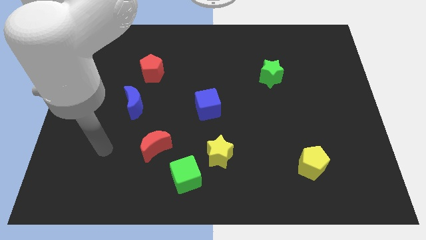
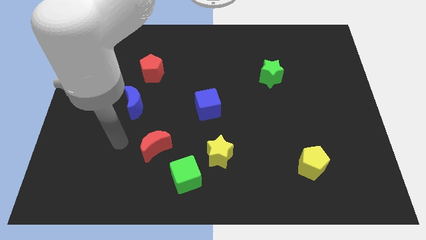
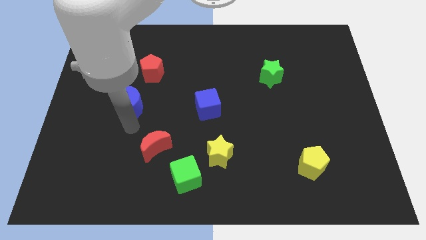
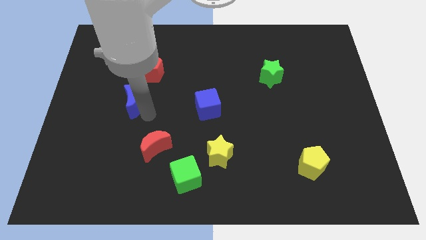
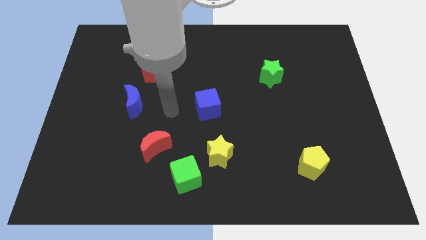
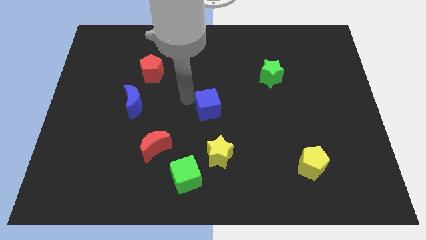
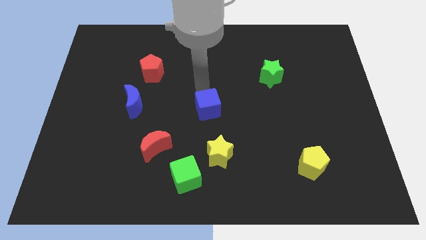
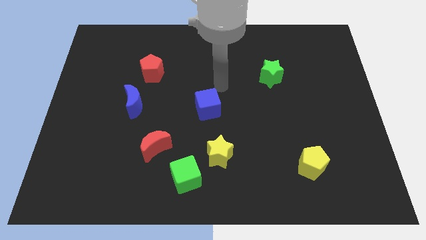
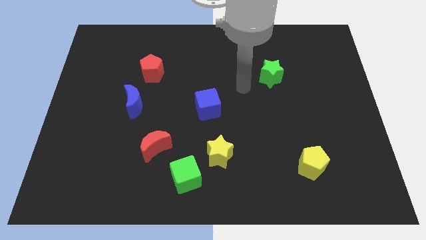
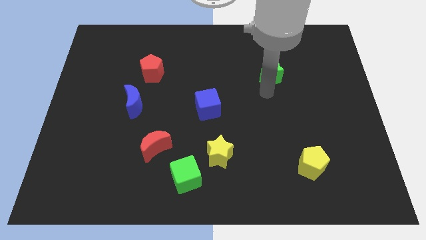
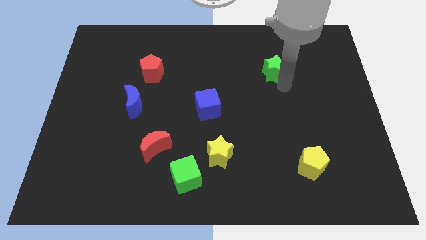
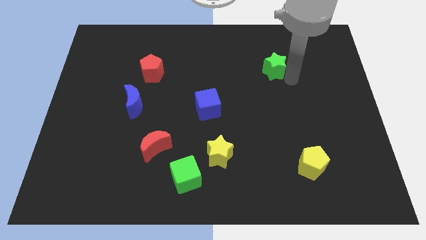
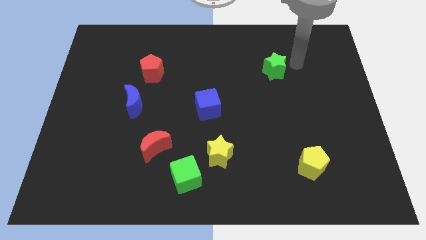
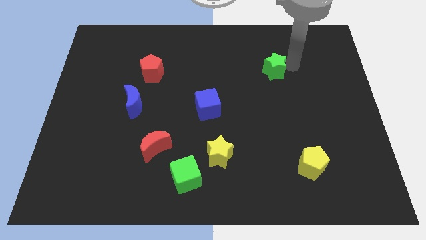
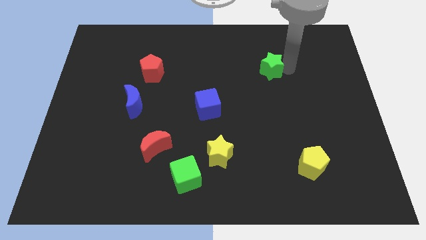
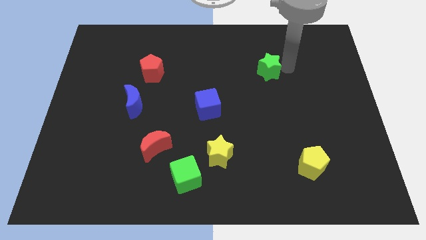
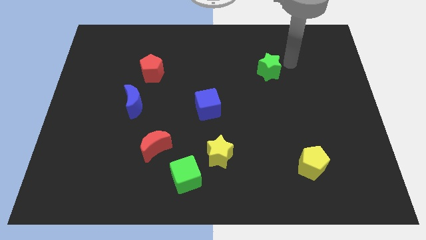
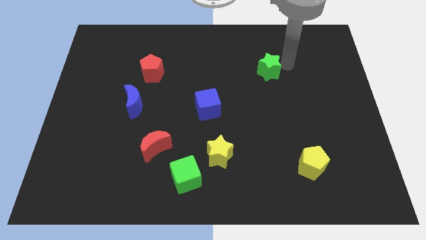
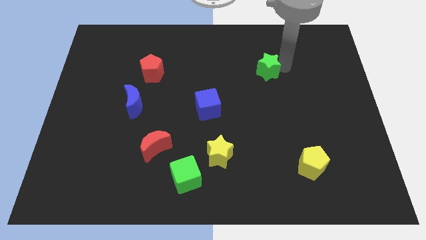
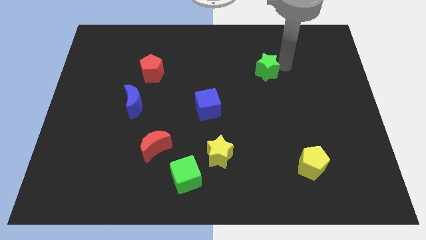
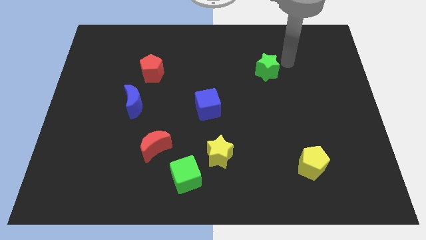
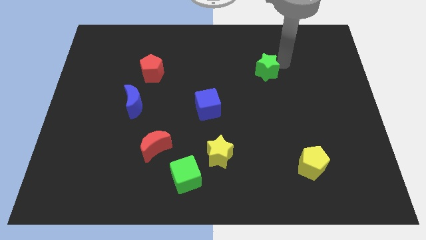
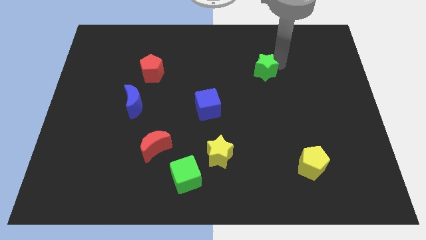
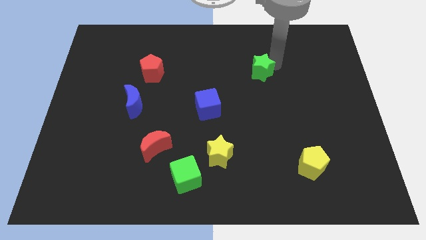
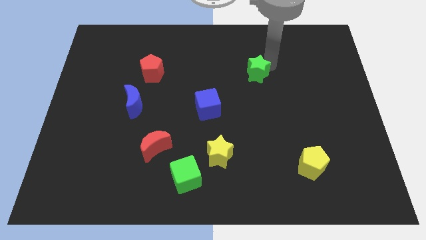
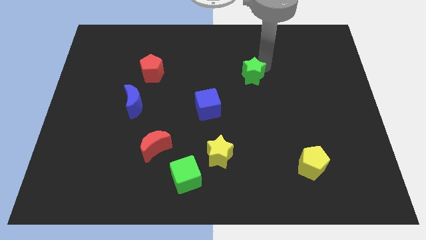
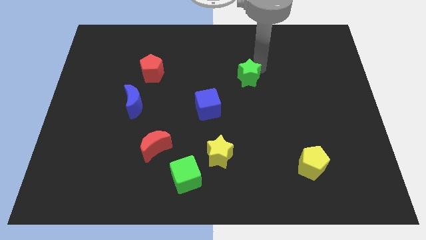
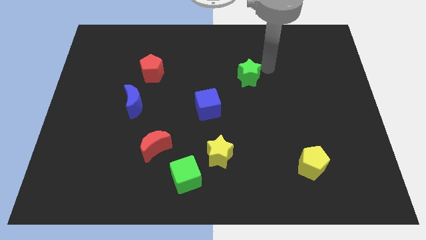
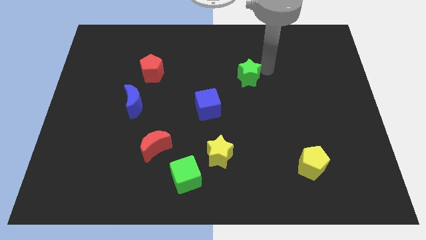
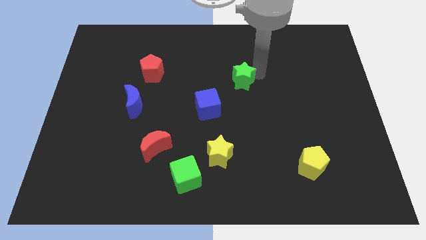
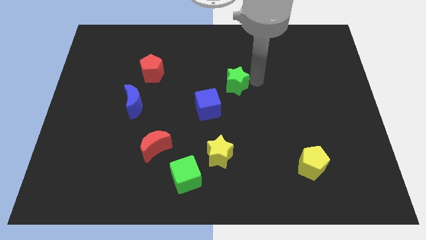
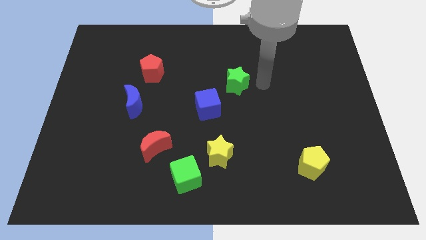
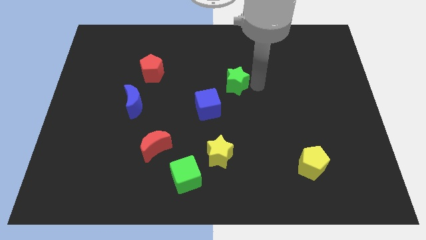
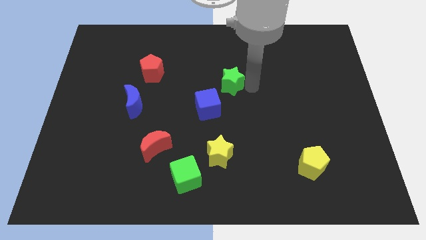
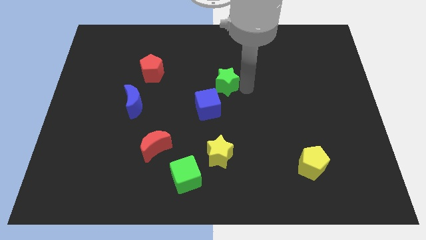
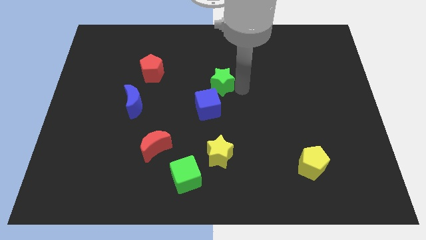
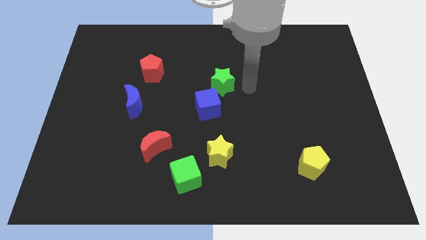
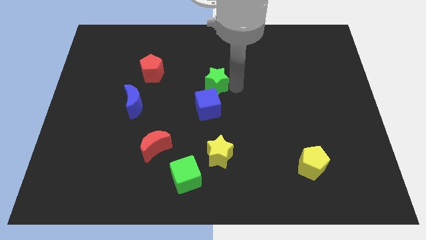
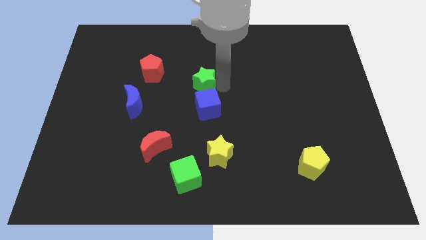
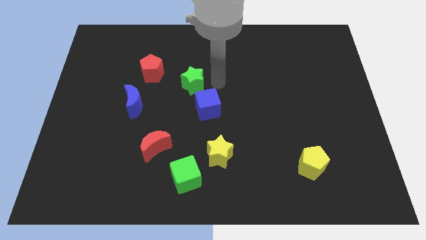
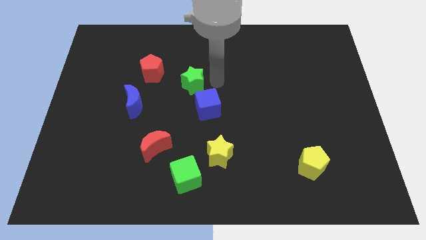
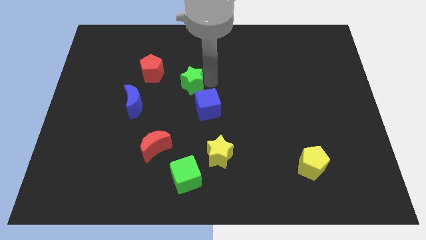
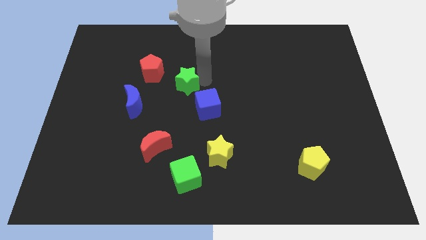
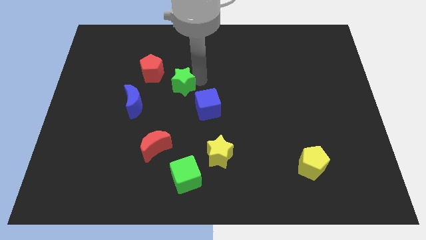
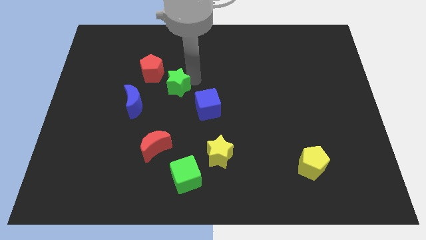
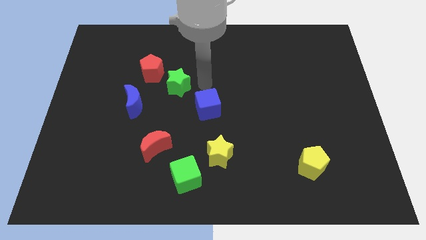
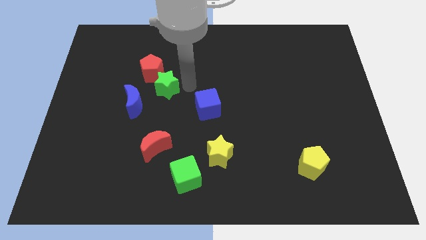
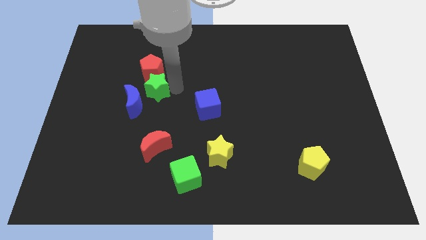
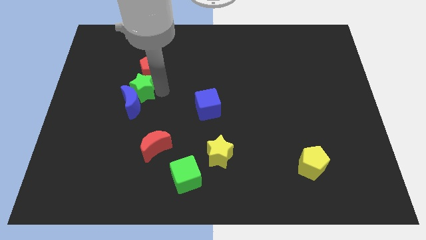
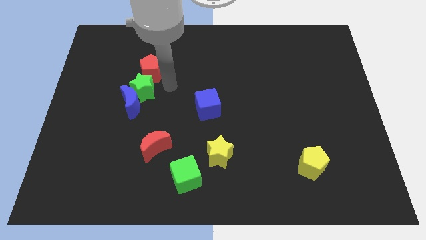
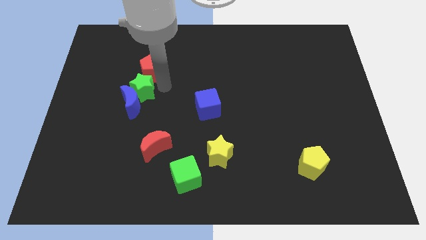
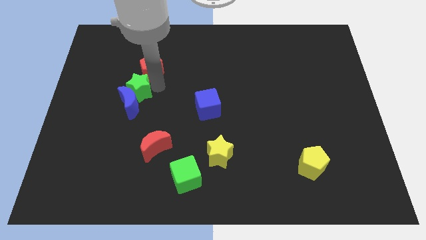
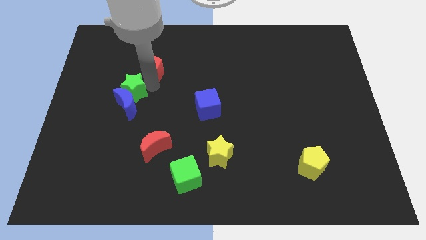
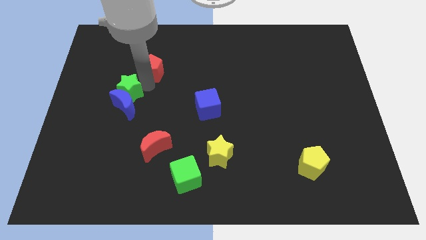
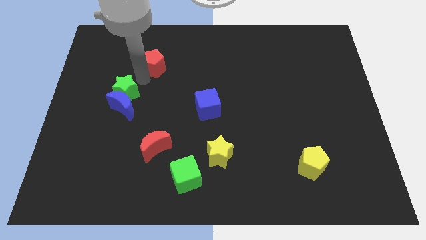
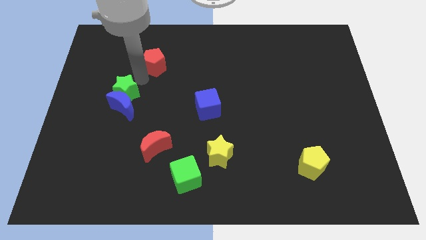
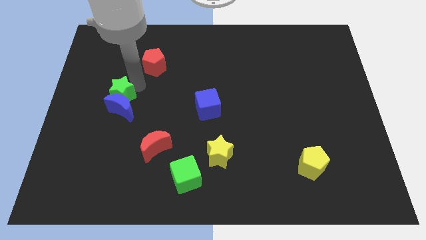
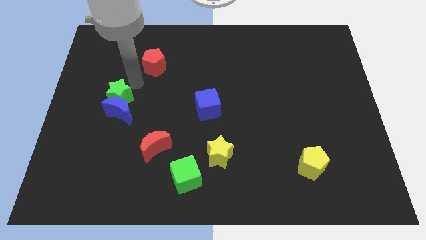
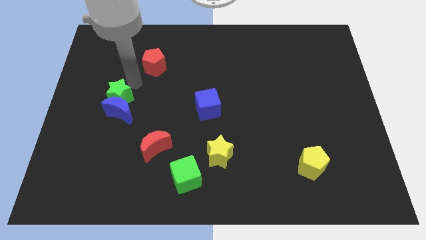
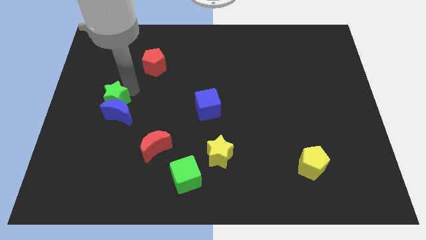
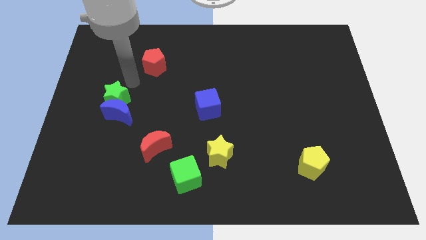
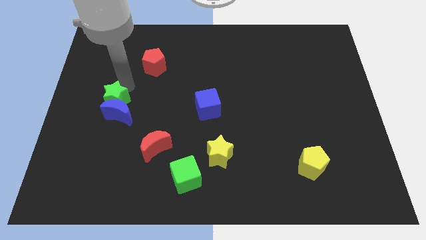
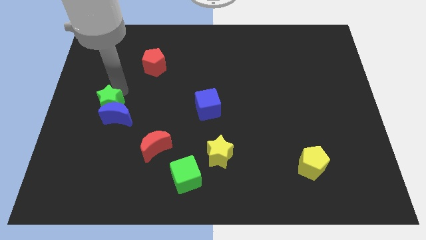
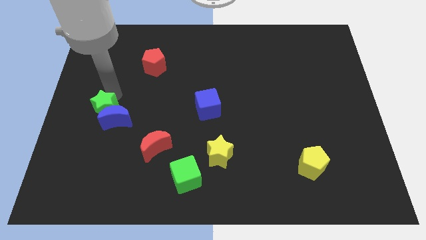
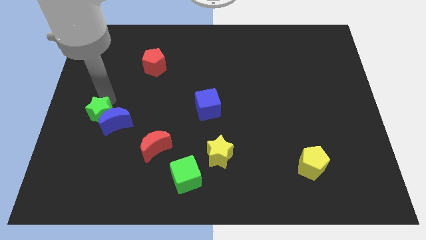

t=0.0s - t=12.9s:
move the green star diagonally down and to the left of the blue moon
